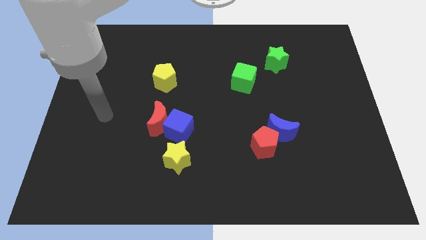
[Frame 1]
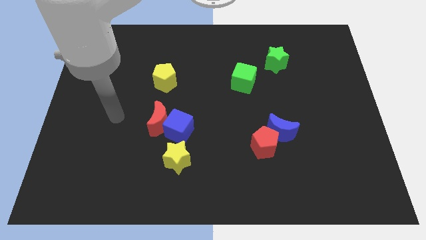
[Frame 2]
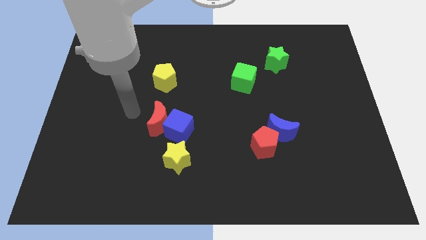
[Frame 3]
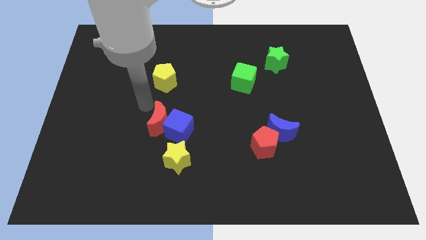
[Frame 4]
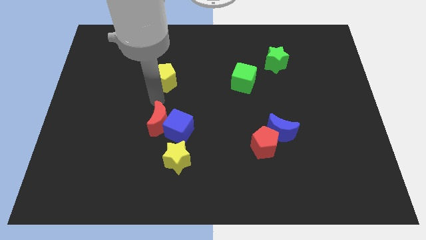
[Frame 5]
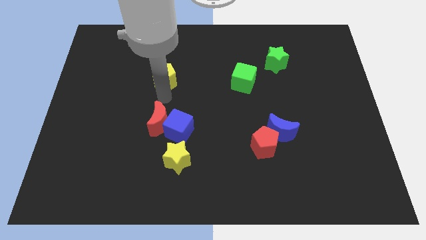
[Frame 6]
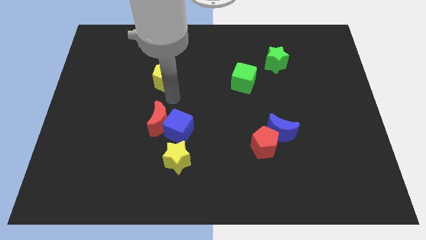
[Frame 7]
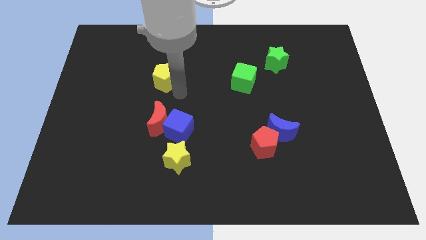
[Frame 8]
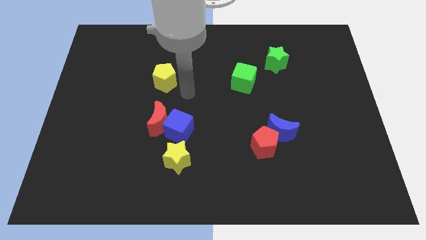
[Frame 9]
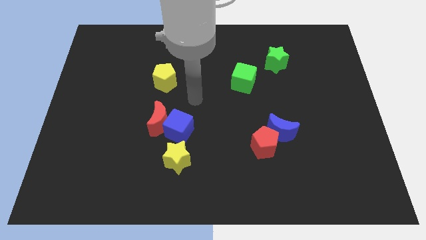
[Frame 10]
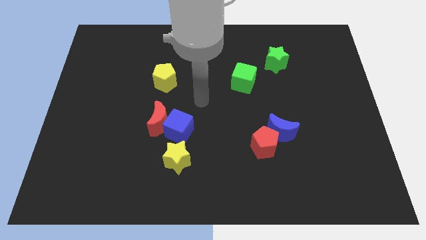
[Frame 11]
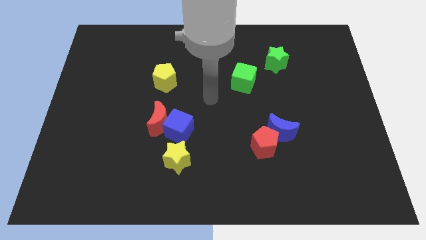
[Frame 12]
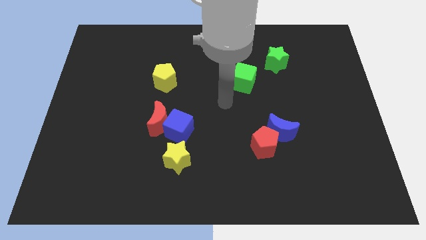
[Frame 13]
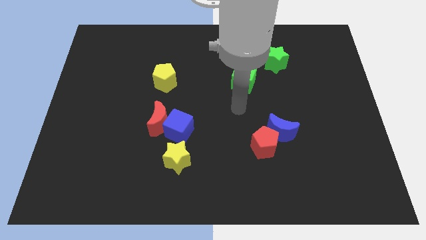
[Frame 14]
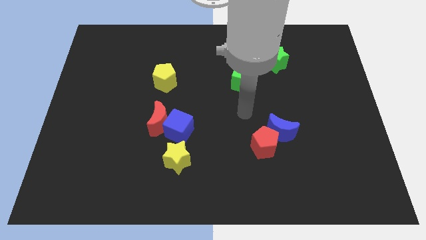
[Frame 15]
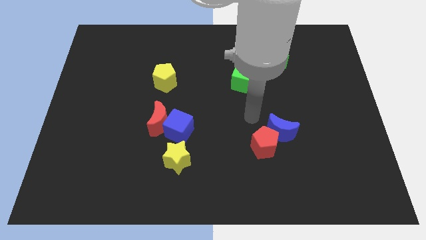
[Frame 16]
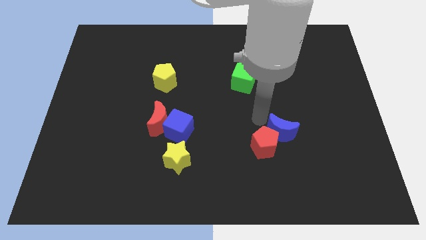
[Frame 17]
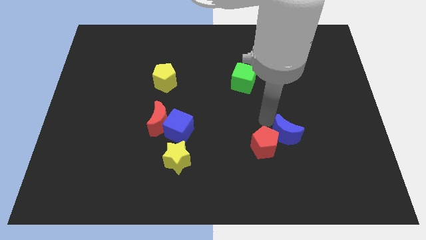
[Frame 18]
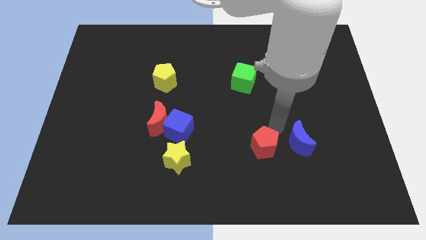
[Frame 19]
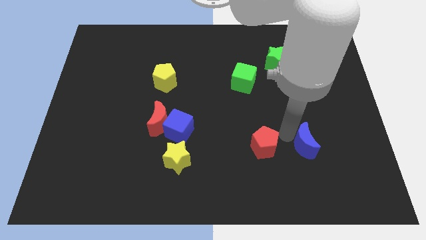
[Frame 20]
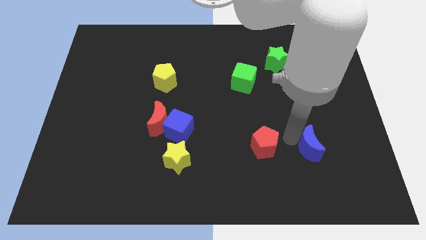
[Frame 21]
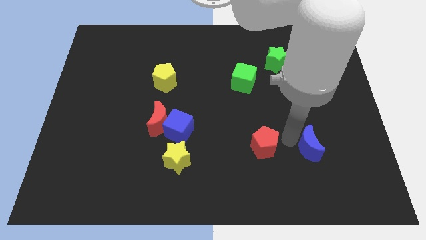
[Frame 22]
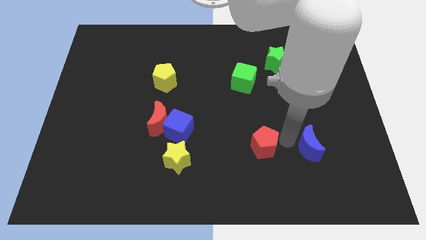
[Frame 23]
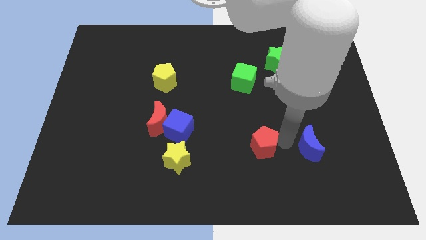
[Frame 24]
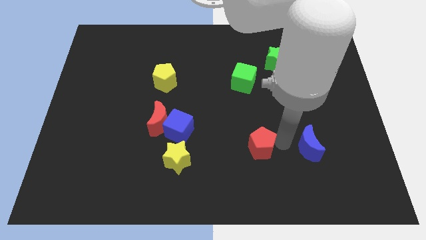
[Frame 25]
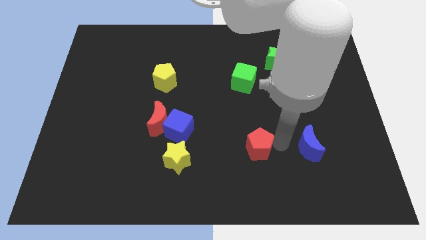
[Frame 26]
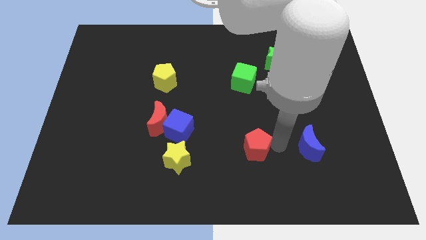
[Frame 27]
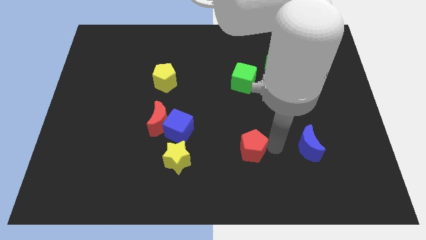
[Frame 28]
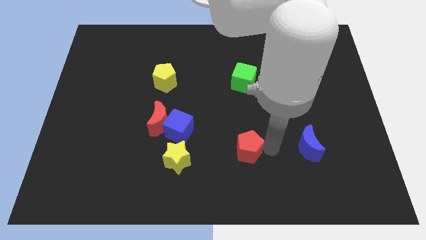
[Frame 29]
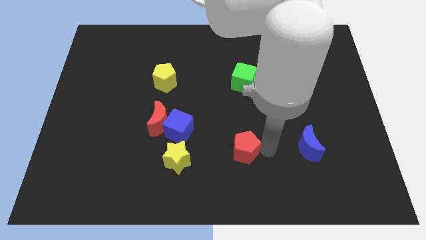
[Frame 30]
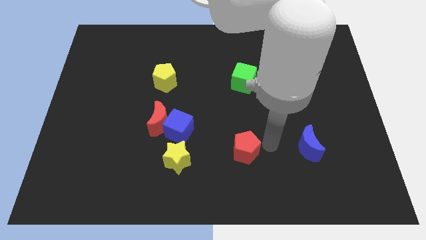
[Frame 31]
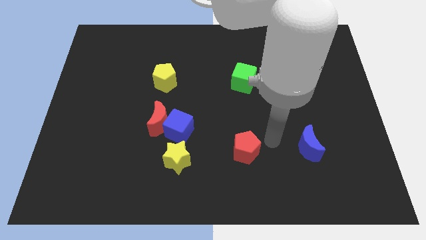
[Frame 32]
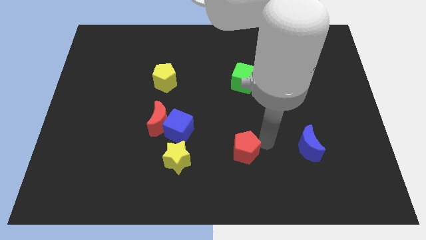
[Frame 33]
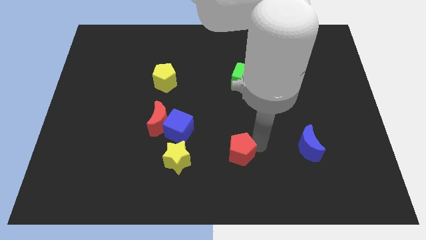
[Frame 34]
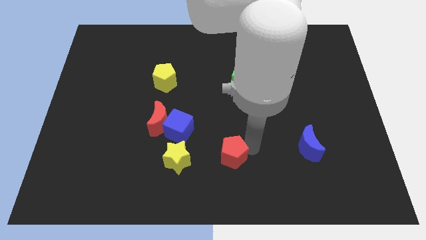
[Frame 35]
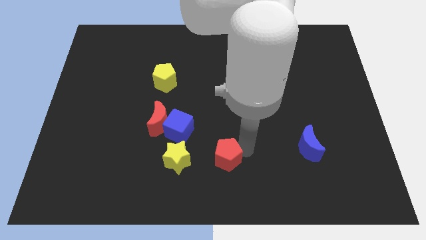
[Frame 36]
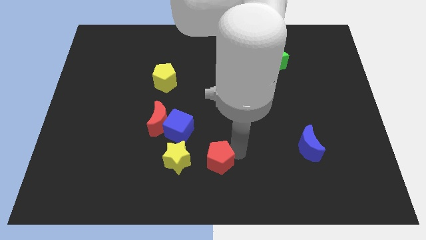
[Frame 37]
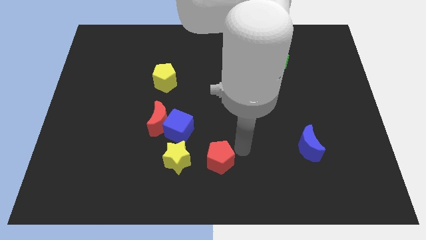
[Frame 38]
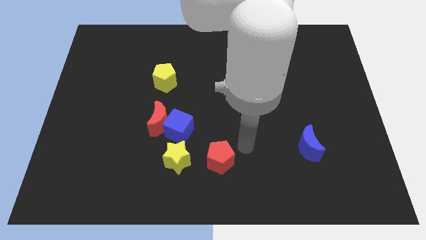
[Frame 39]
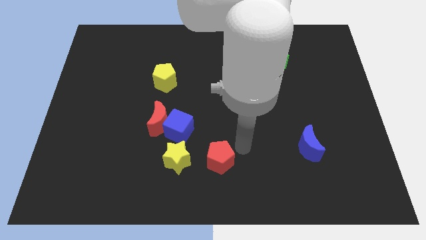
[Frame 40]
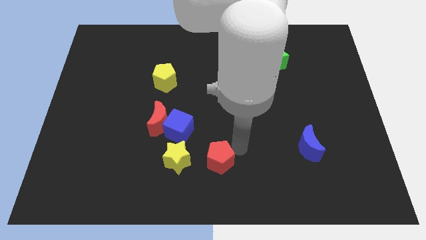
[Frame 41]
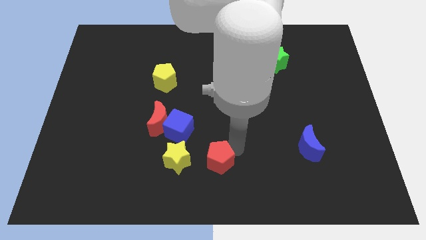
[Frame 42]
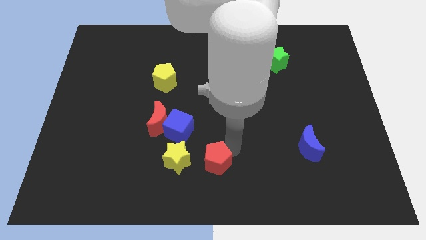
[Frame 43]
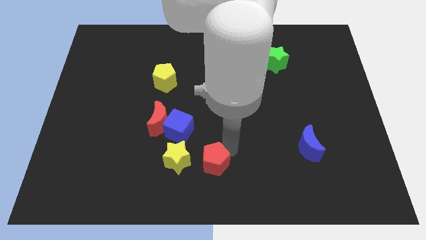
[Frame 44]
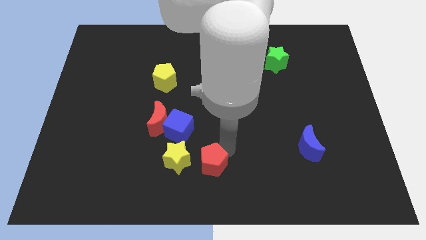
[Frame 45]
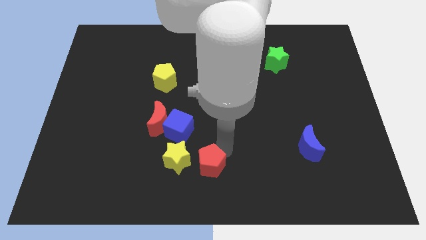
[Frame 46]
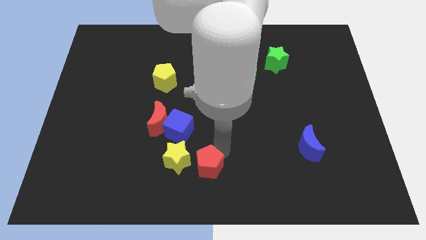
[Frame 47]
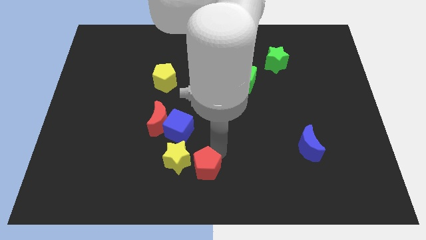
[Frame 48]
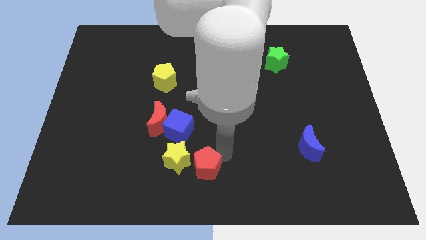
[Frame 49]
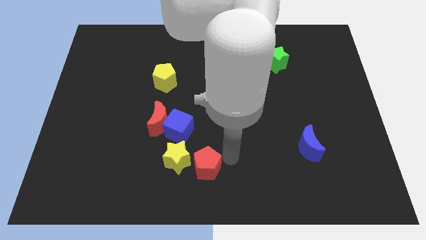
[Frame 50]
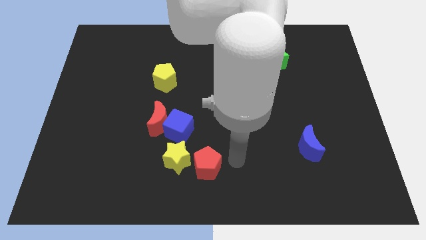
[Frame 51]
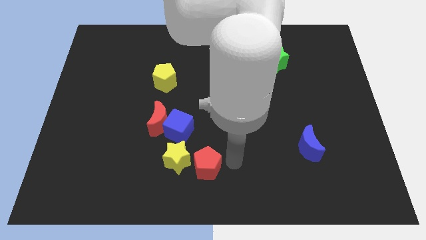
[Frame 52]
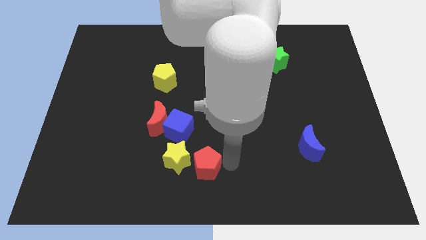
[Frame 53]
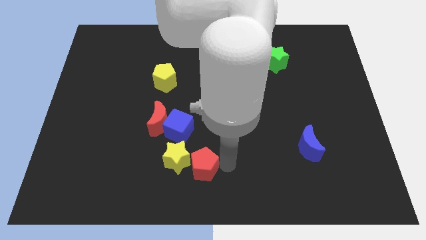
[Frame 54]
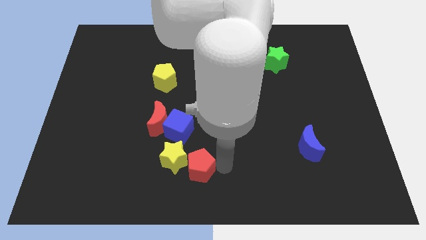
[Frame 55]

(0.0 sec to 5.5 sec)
put the red pentagon to the bottom side of the blue cube

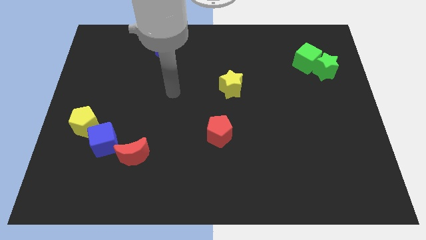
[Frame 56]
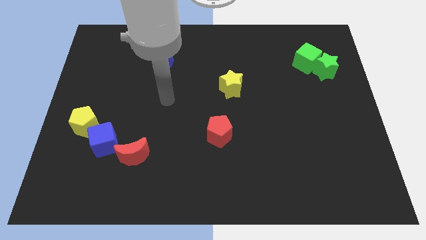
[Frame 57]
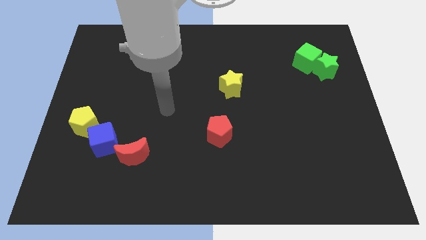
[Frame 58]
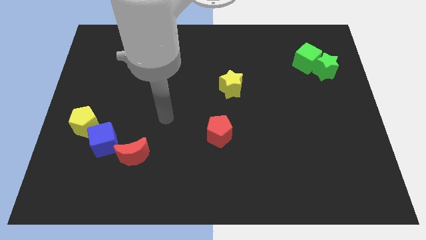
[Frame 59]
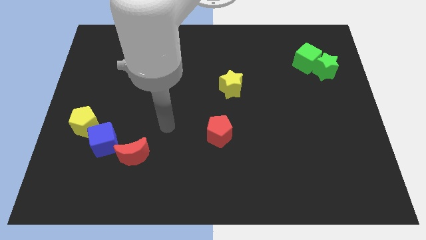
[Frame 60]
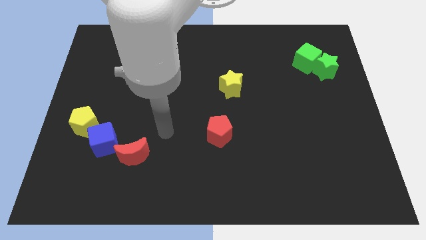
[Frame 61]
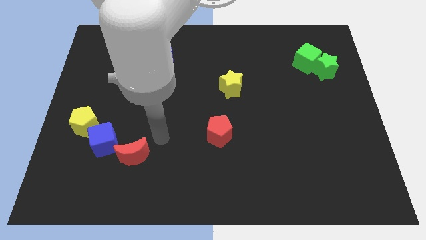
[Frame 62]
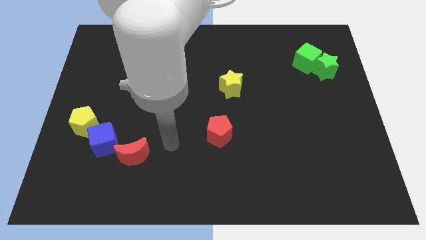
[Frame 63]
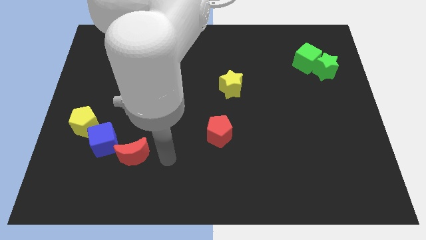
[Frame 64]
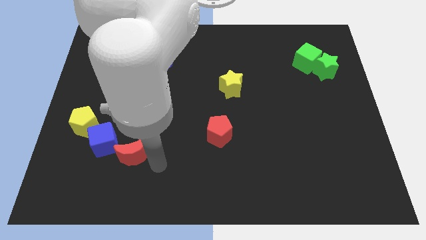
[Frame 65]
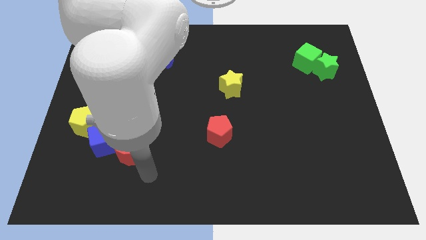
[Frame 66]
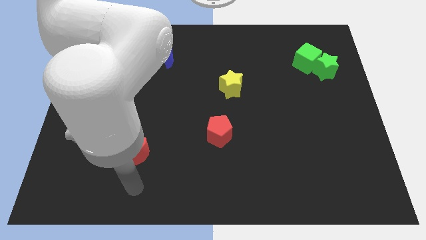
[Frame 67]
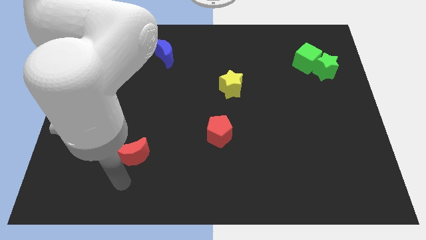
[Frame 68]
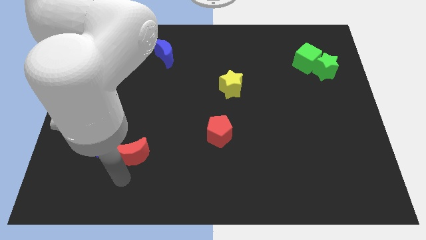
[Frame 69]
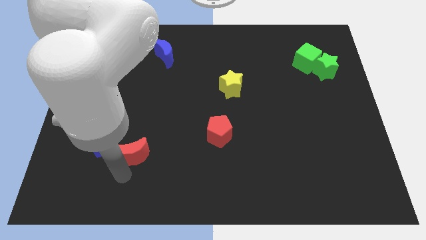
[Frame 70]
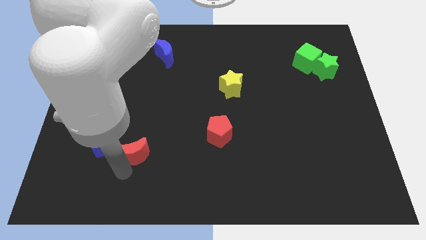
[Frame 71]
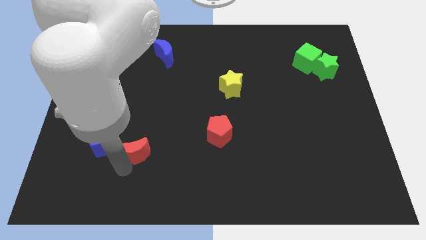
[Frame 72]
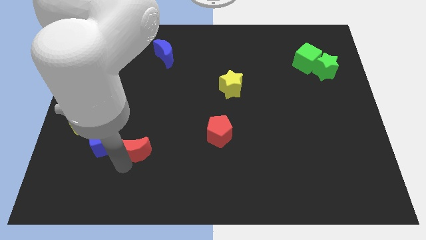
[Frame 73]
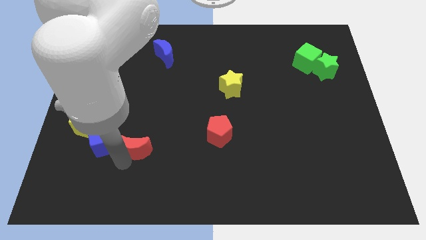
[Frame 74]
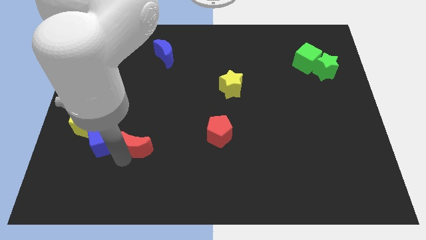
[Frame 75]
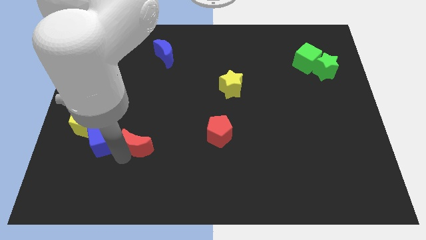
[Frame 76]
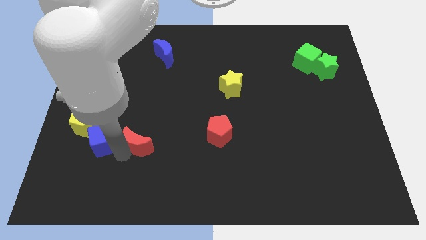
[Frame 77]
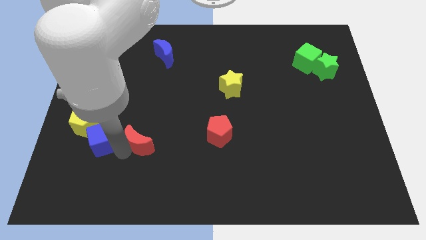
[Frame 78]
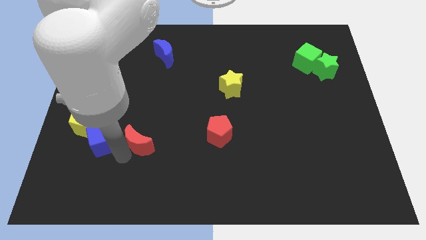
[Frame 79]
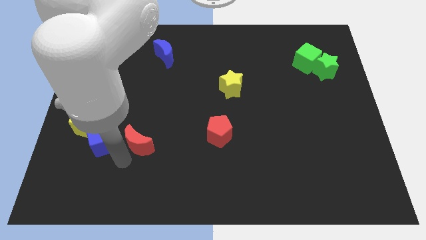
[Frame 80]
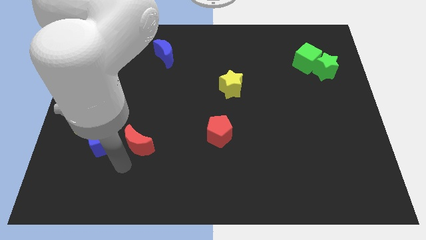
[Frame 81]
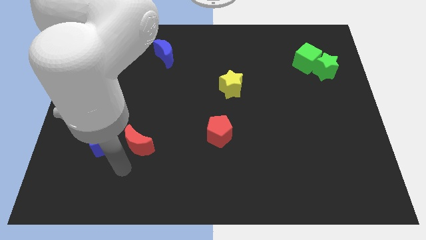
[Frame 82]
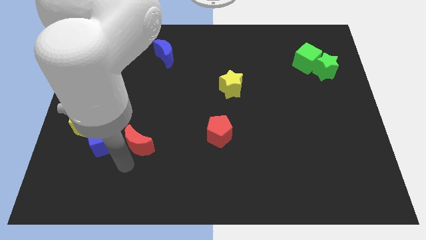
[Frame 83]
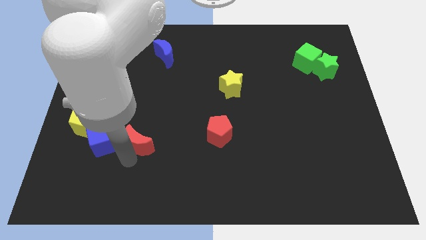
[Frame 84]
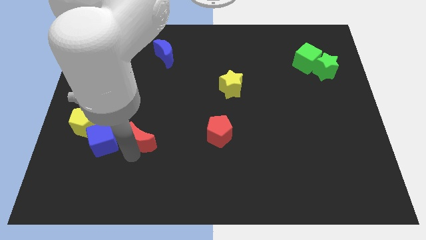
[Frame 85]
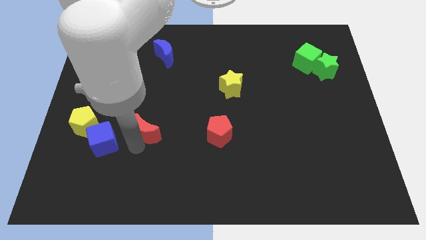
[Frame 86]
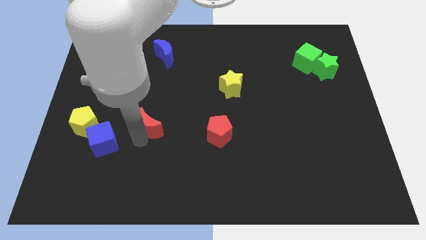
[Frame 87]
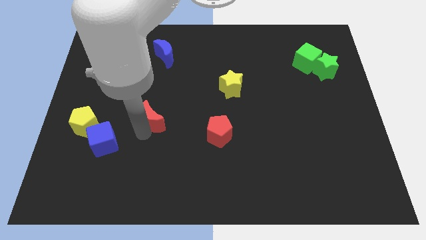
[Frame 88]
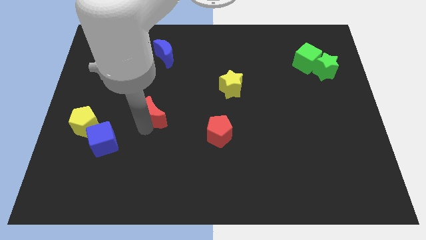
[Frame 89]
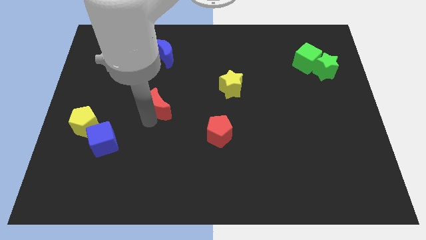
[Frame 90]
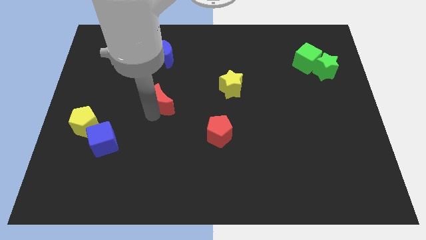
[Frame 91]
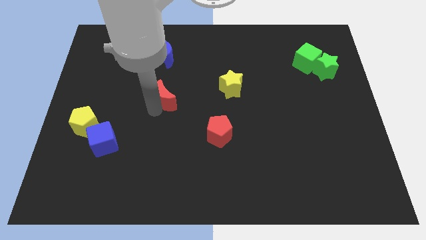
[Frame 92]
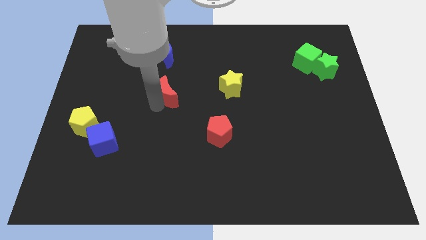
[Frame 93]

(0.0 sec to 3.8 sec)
move the red moon just left of the yellow star
